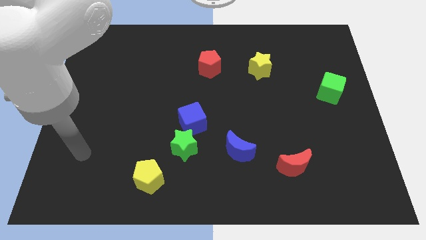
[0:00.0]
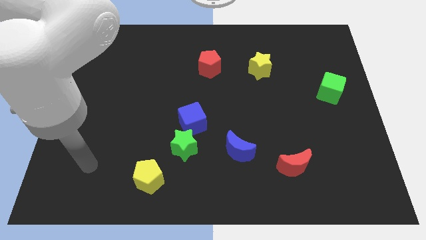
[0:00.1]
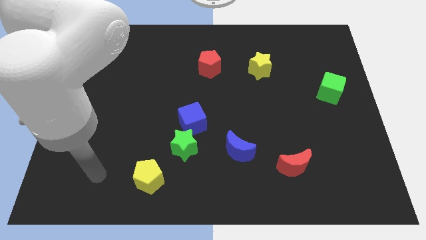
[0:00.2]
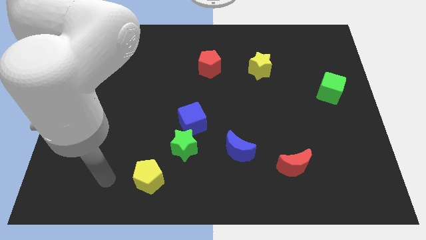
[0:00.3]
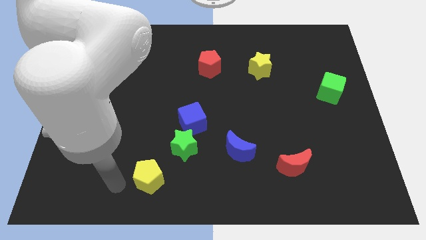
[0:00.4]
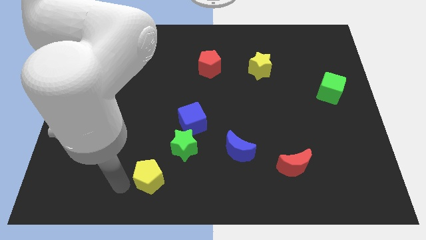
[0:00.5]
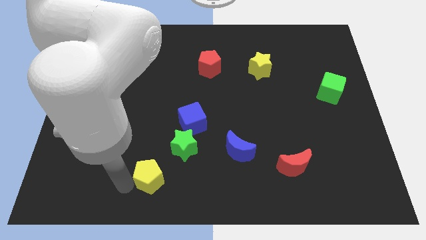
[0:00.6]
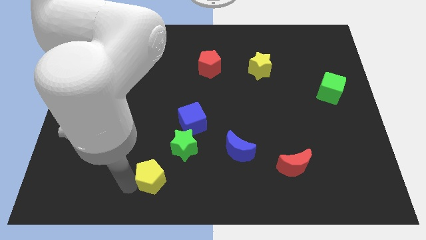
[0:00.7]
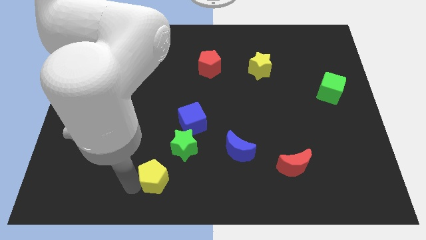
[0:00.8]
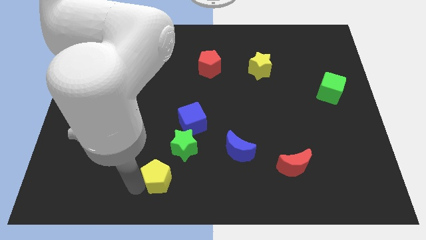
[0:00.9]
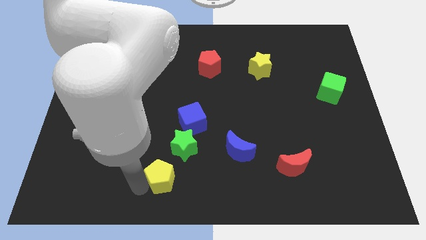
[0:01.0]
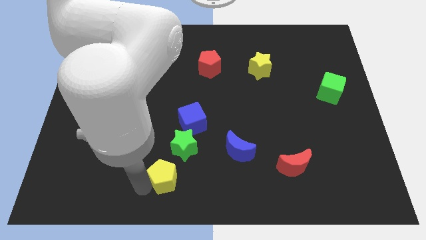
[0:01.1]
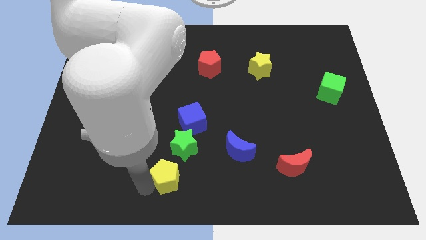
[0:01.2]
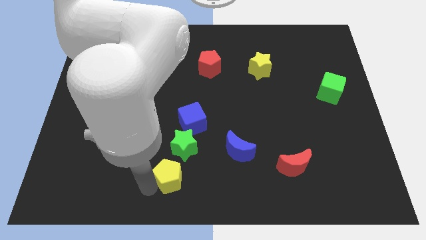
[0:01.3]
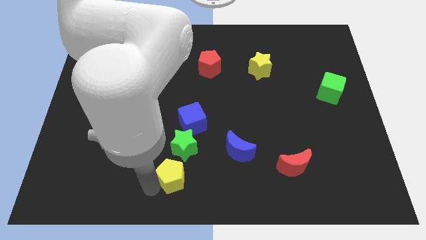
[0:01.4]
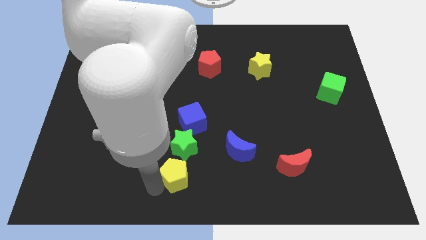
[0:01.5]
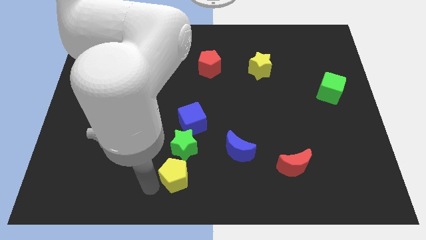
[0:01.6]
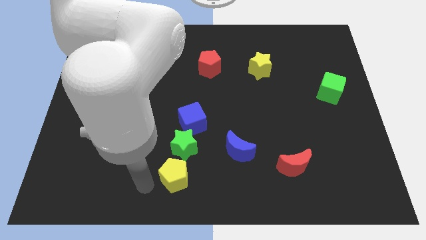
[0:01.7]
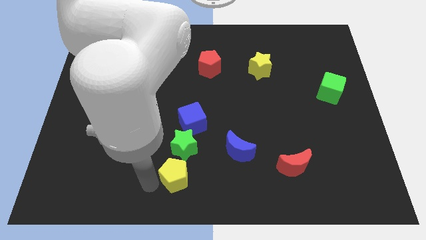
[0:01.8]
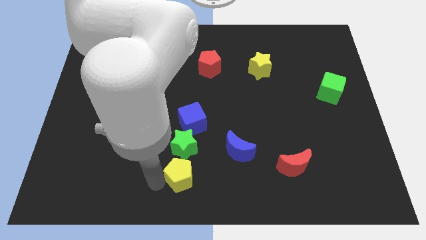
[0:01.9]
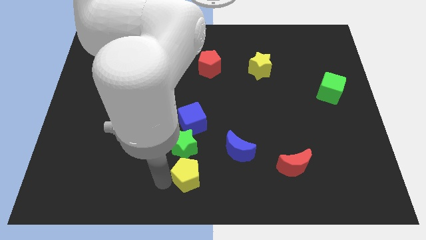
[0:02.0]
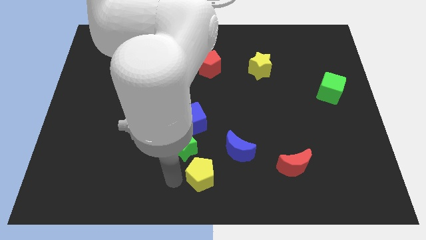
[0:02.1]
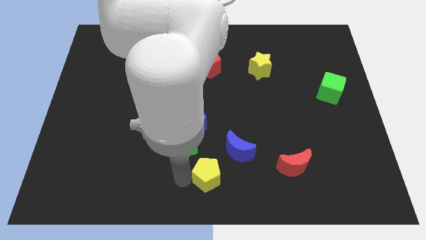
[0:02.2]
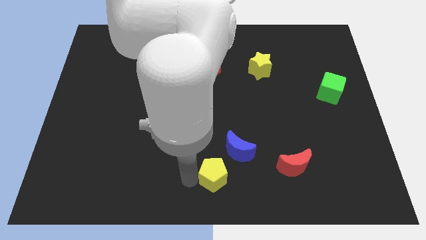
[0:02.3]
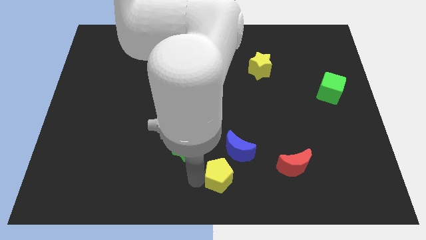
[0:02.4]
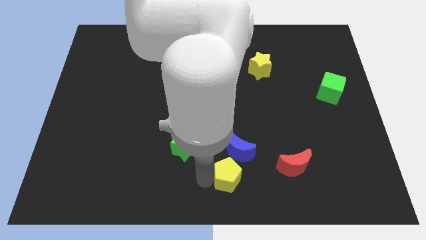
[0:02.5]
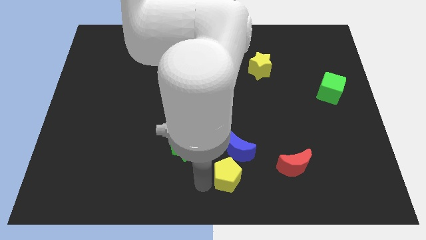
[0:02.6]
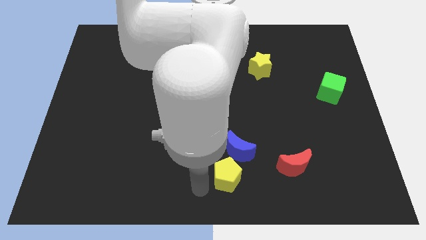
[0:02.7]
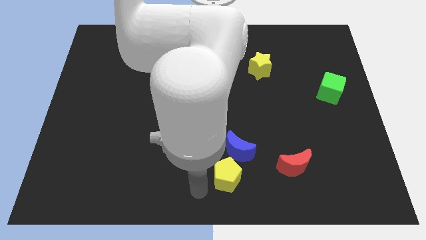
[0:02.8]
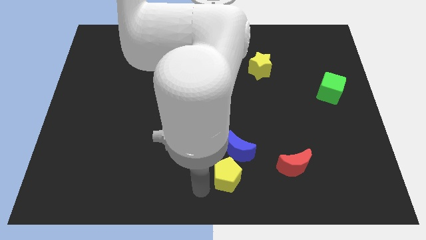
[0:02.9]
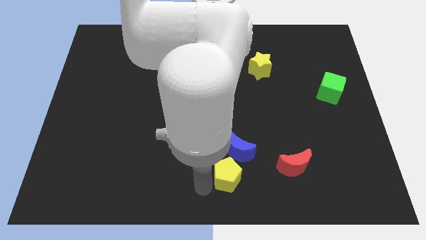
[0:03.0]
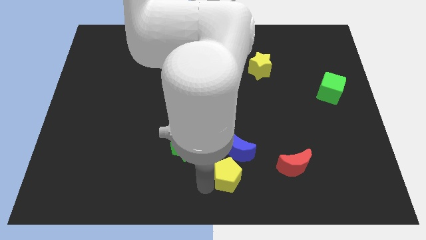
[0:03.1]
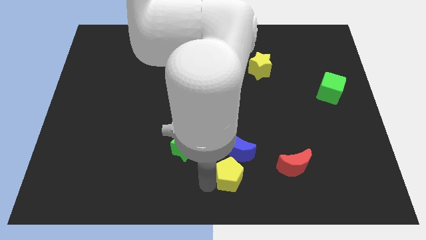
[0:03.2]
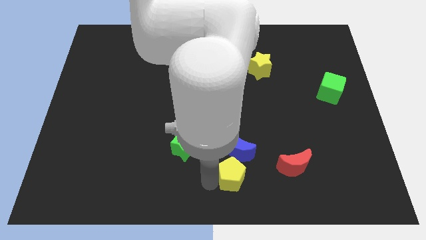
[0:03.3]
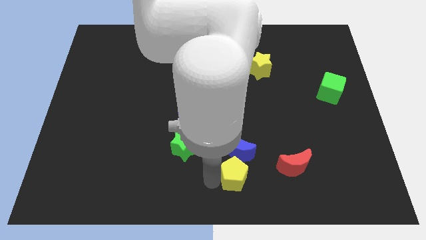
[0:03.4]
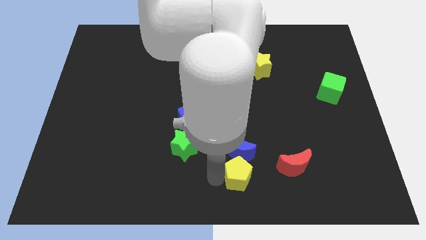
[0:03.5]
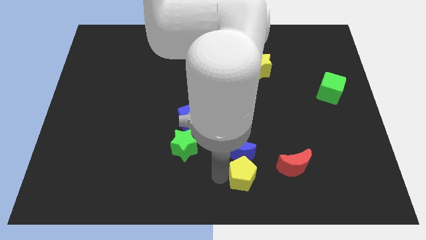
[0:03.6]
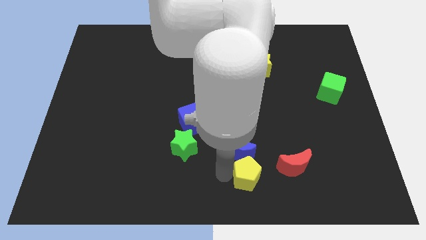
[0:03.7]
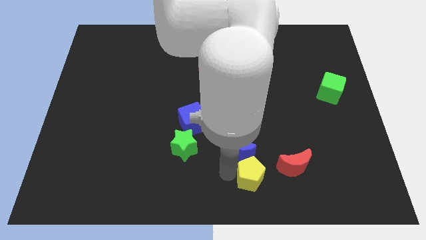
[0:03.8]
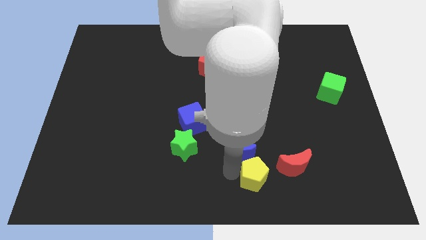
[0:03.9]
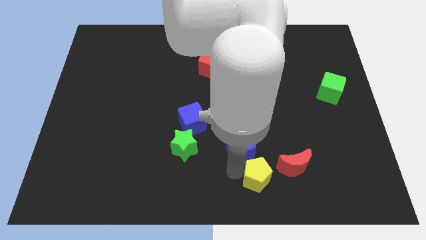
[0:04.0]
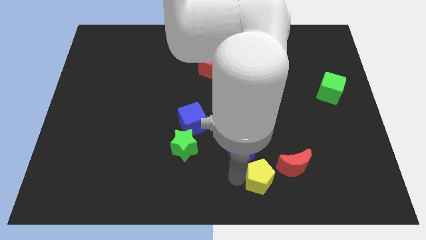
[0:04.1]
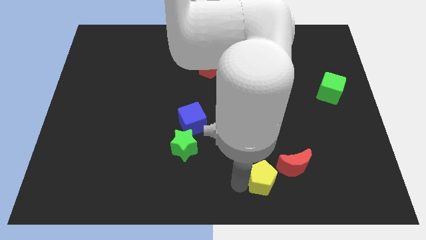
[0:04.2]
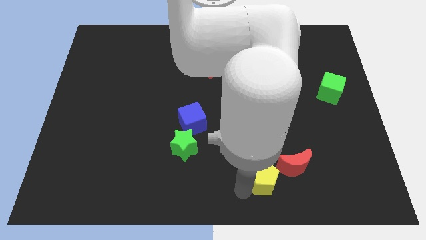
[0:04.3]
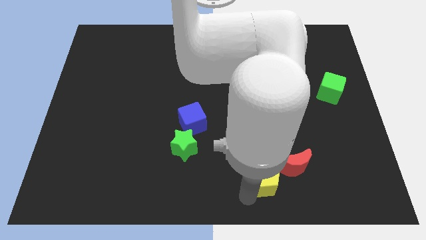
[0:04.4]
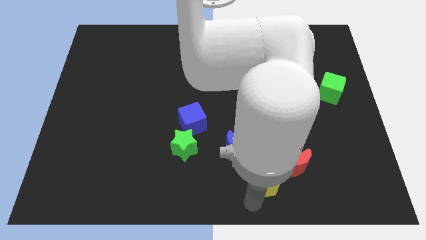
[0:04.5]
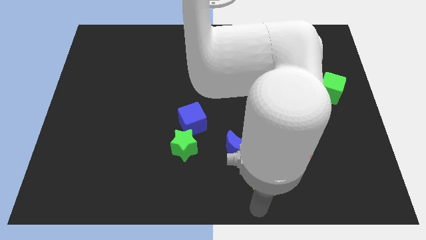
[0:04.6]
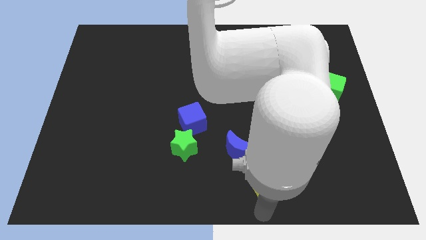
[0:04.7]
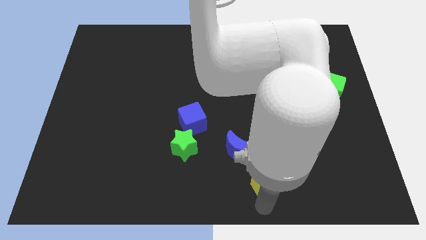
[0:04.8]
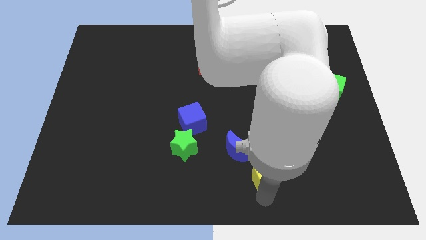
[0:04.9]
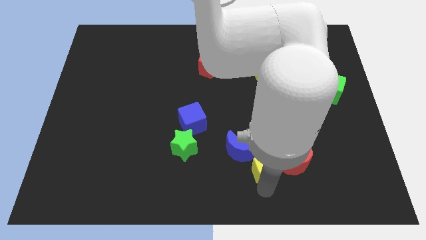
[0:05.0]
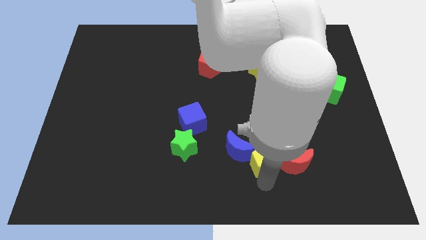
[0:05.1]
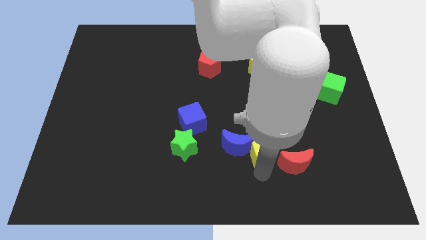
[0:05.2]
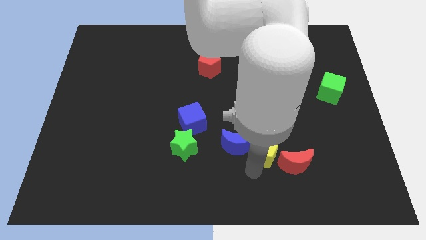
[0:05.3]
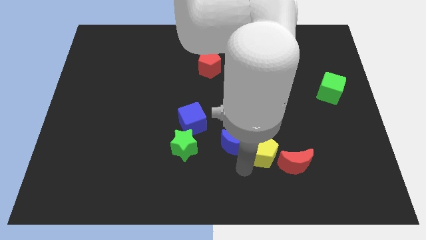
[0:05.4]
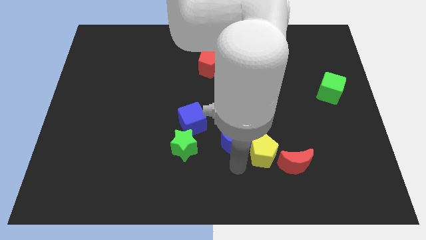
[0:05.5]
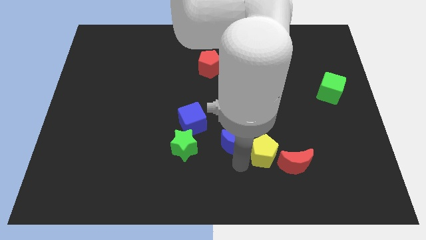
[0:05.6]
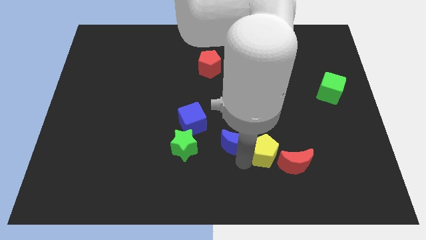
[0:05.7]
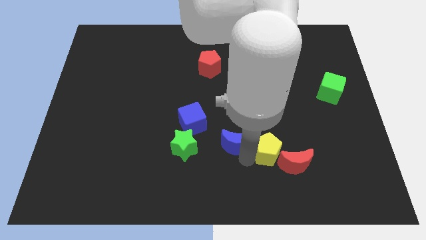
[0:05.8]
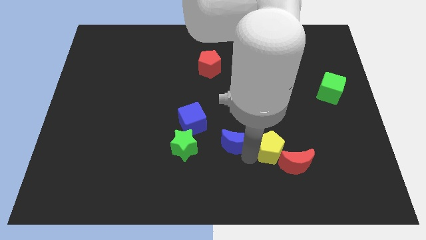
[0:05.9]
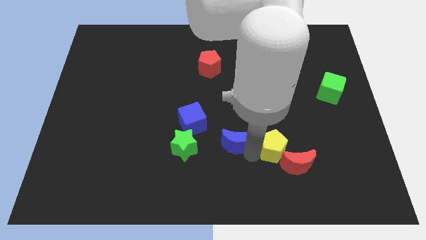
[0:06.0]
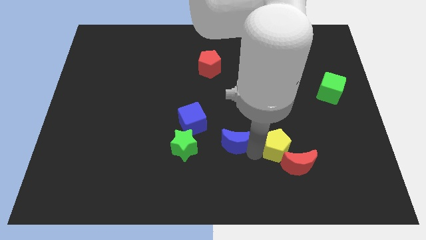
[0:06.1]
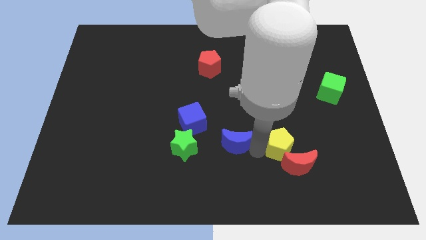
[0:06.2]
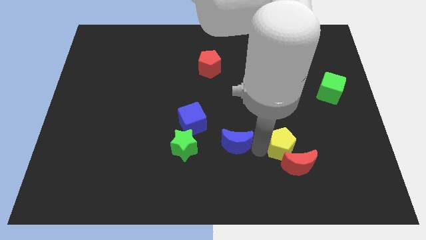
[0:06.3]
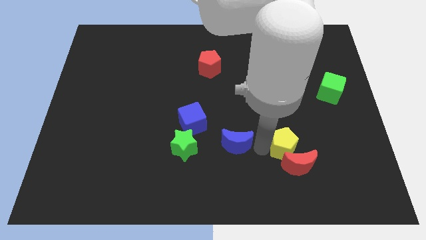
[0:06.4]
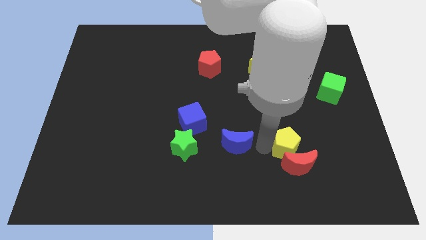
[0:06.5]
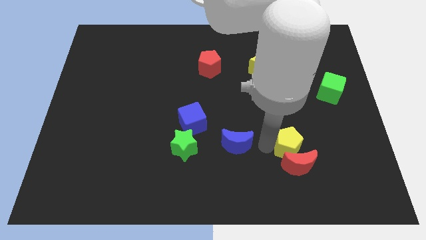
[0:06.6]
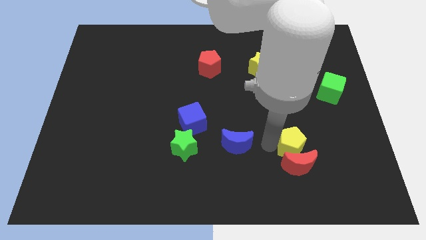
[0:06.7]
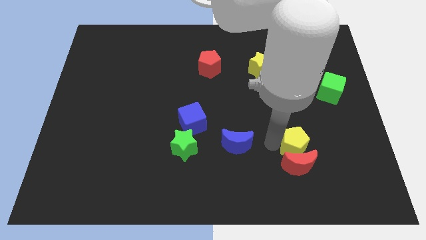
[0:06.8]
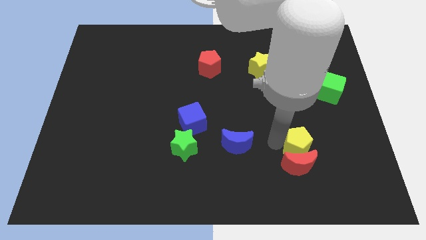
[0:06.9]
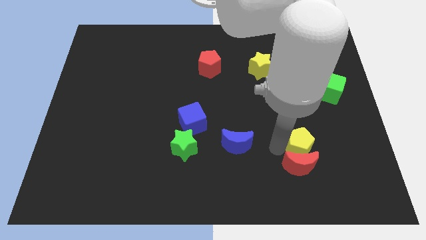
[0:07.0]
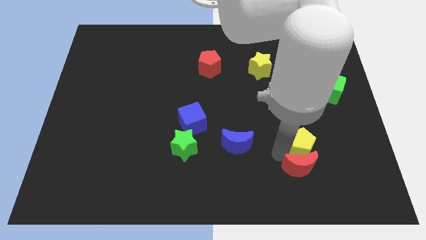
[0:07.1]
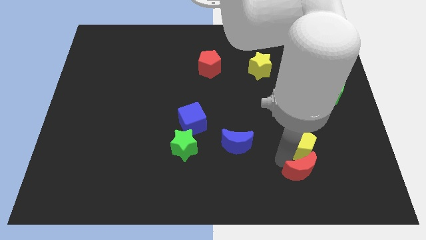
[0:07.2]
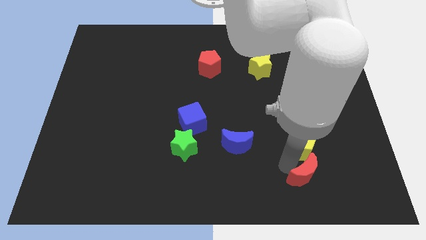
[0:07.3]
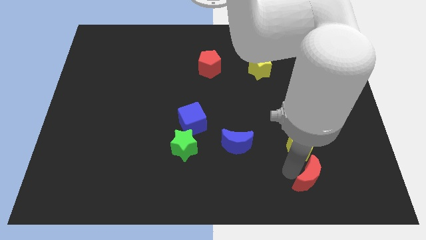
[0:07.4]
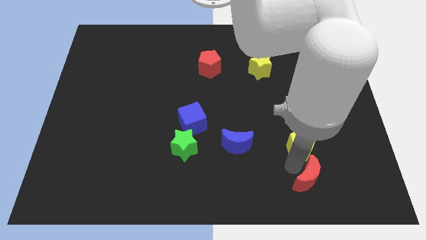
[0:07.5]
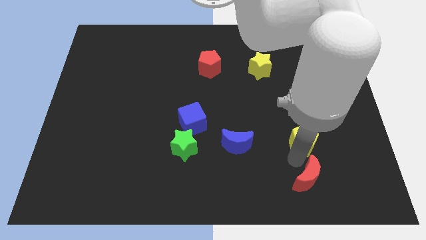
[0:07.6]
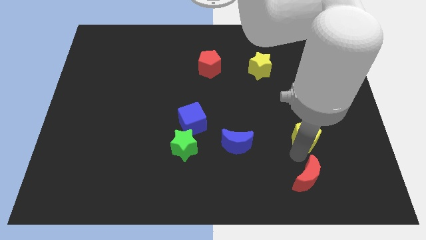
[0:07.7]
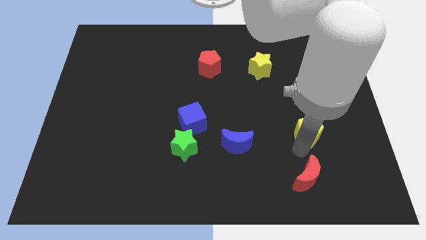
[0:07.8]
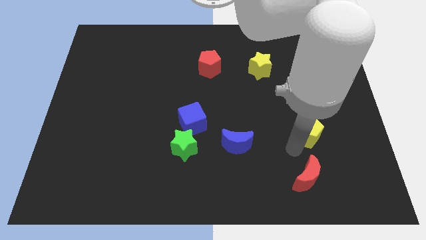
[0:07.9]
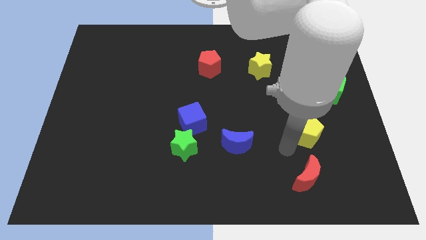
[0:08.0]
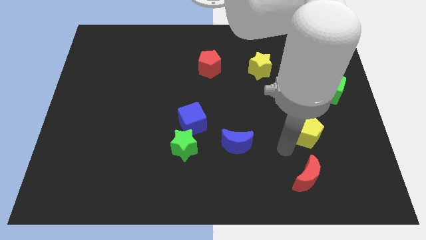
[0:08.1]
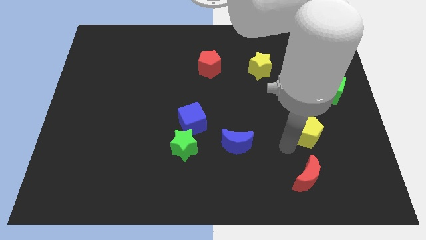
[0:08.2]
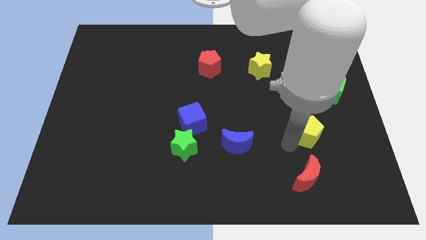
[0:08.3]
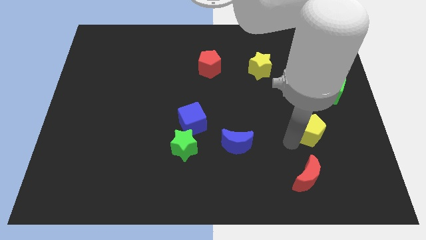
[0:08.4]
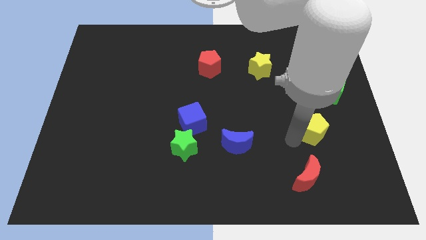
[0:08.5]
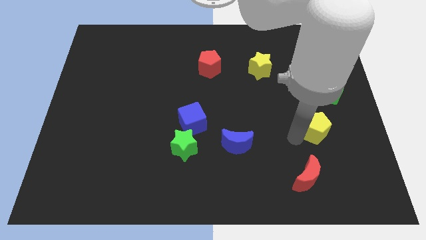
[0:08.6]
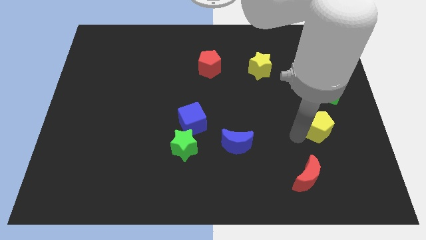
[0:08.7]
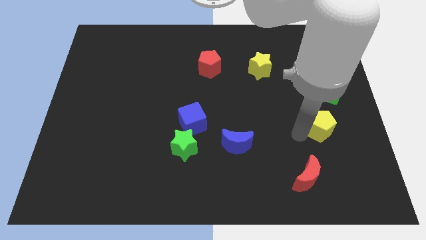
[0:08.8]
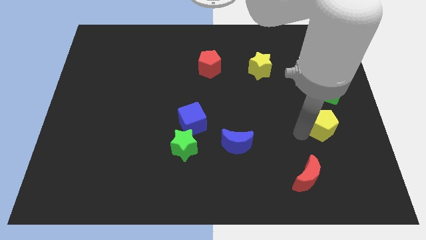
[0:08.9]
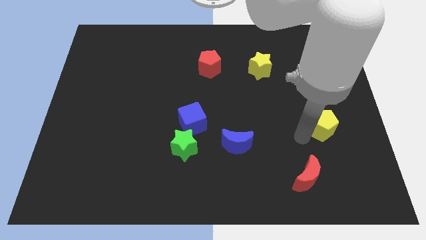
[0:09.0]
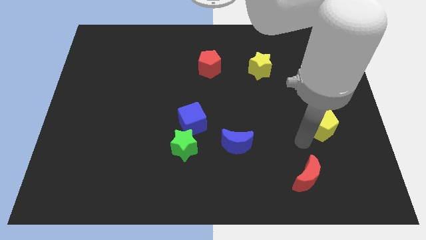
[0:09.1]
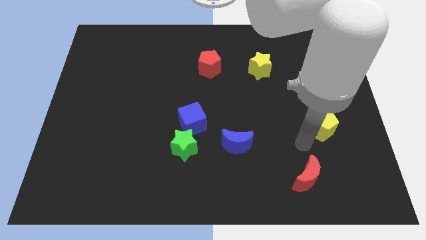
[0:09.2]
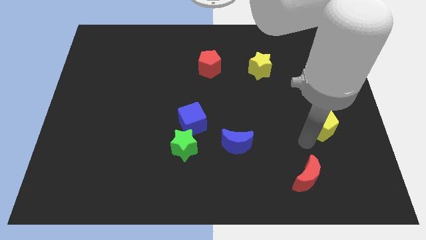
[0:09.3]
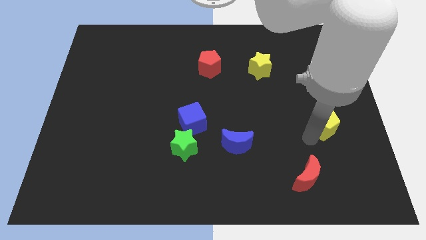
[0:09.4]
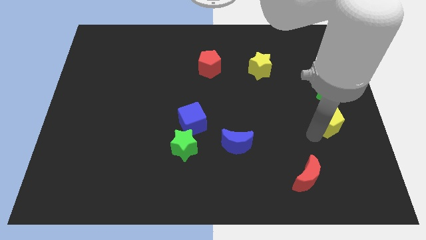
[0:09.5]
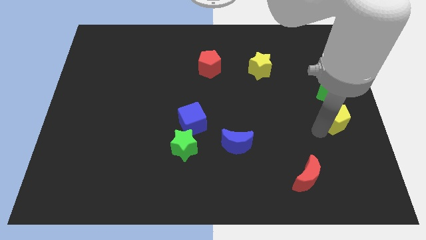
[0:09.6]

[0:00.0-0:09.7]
push the yellow pentagon to the right side
